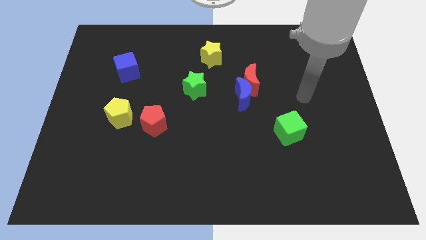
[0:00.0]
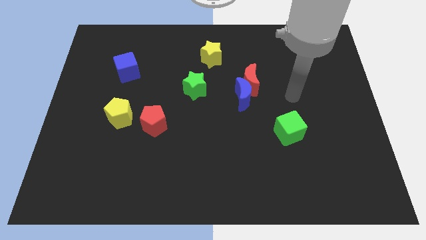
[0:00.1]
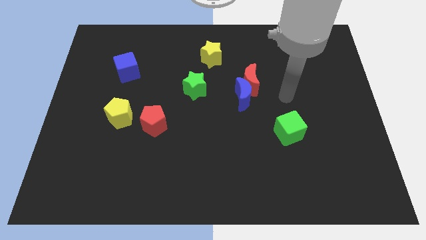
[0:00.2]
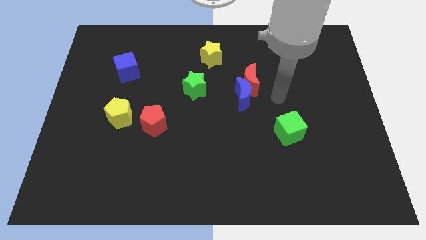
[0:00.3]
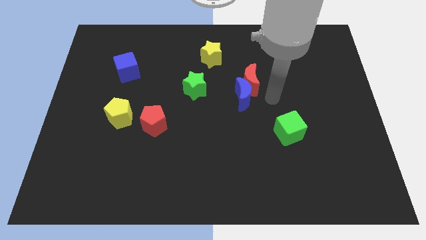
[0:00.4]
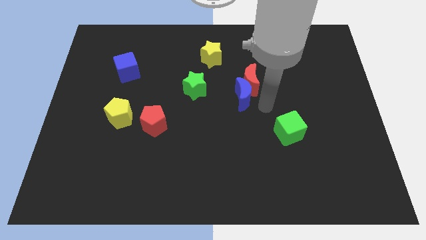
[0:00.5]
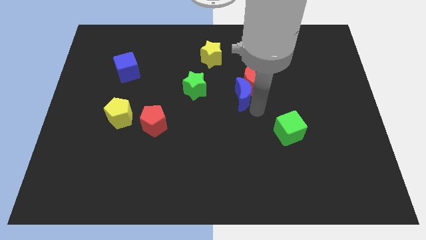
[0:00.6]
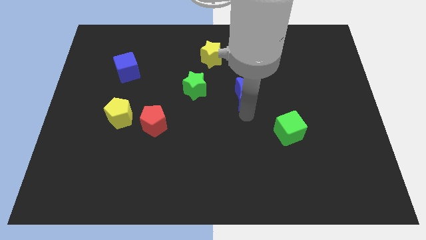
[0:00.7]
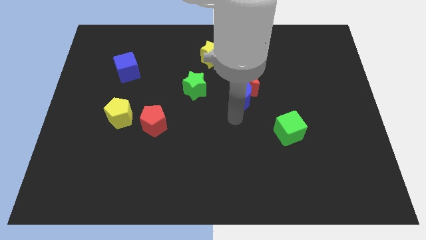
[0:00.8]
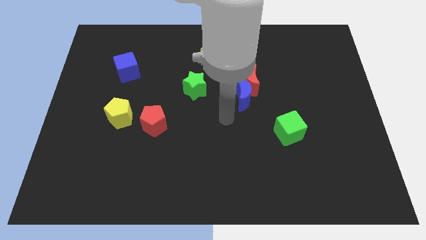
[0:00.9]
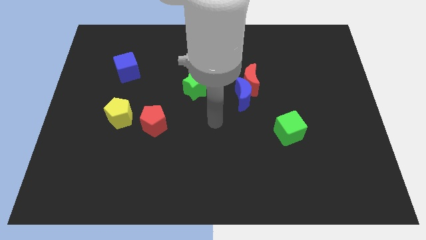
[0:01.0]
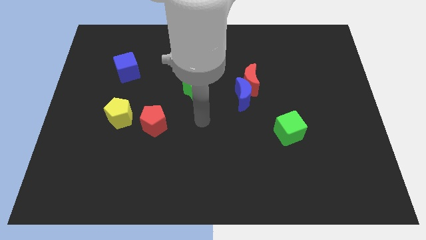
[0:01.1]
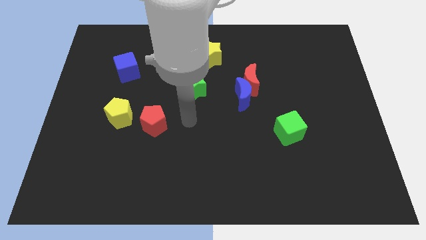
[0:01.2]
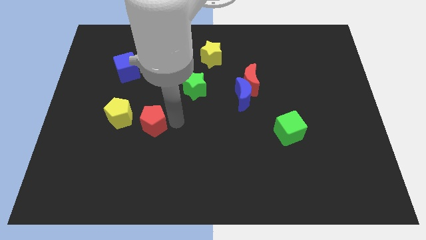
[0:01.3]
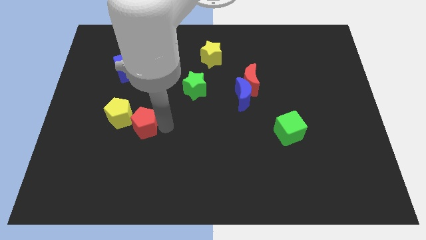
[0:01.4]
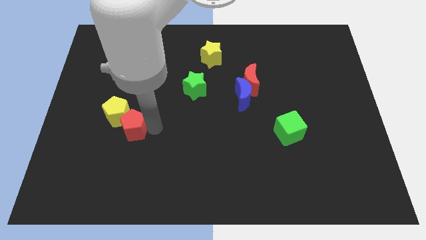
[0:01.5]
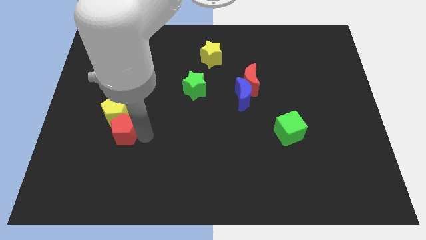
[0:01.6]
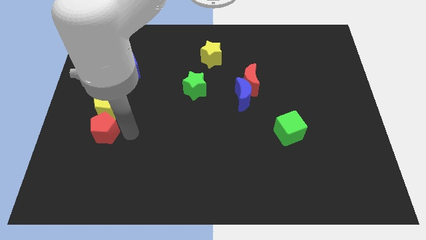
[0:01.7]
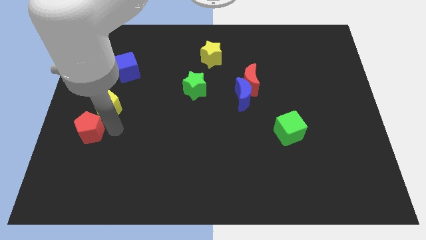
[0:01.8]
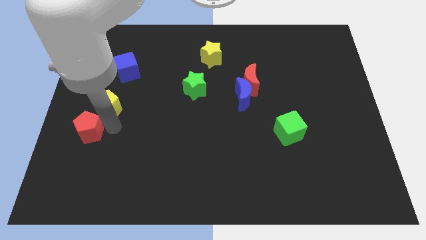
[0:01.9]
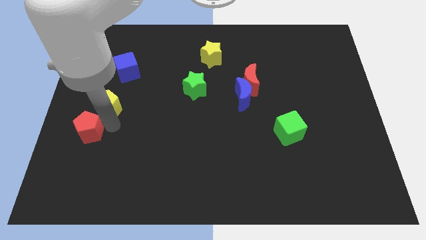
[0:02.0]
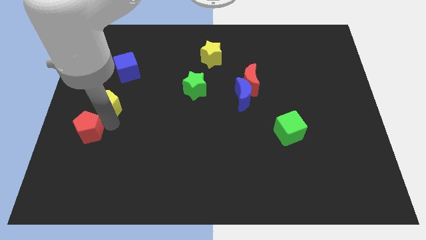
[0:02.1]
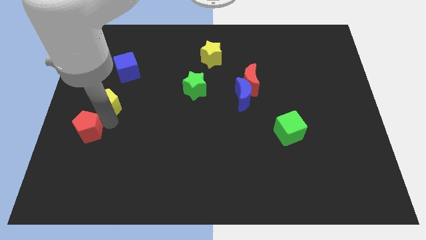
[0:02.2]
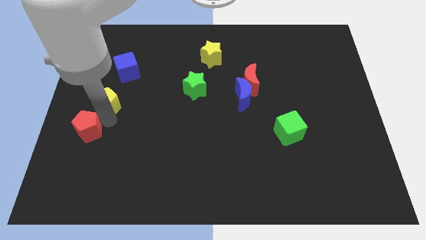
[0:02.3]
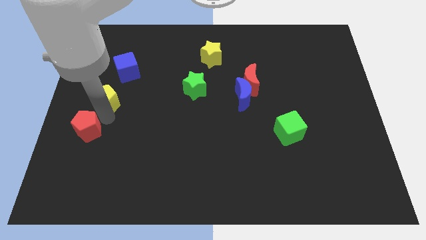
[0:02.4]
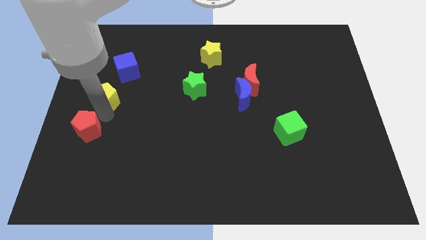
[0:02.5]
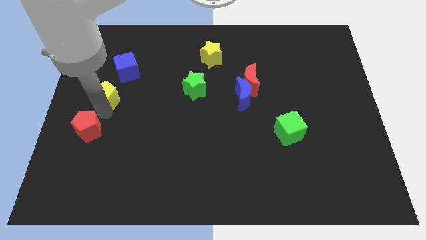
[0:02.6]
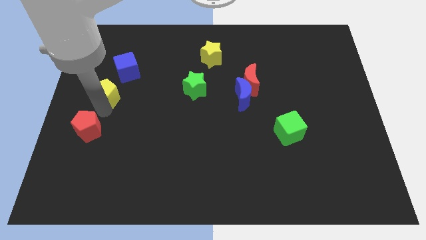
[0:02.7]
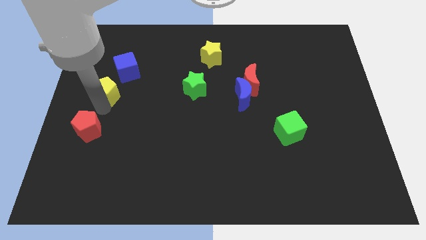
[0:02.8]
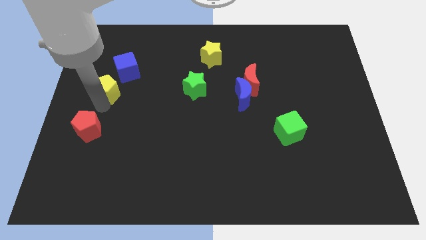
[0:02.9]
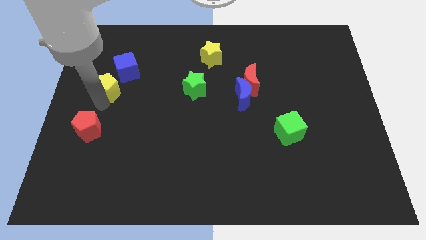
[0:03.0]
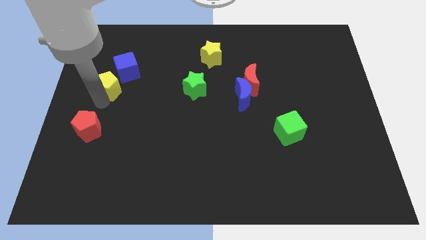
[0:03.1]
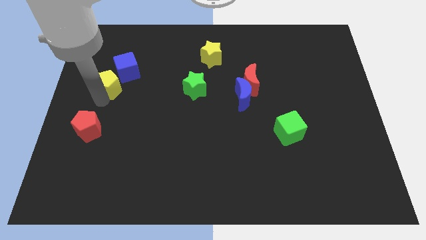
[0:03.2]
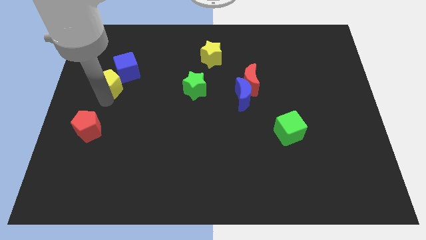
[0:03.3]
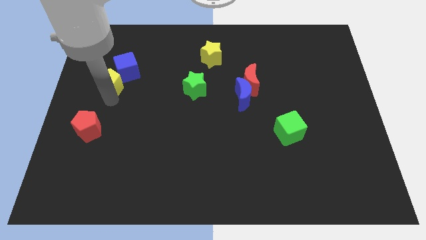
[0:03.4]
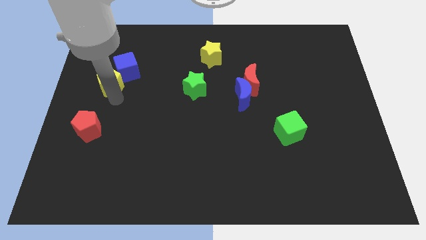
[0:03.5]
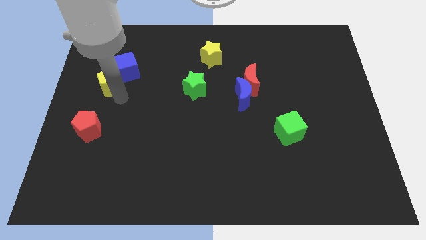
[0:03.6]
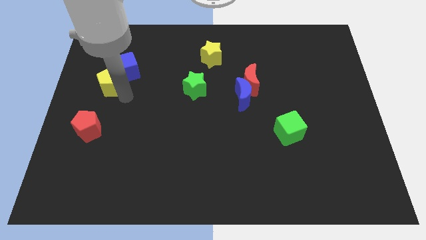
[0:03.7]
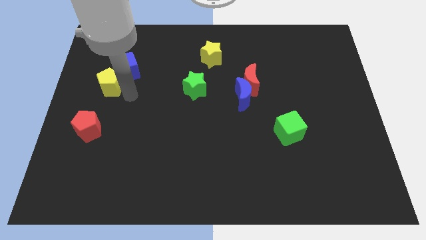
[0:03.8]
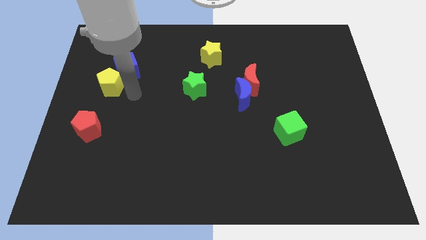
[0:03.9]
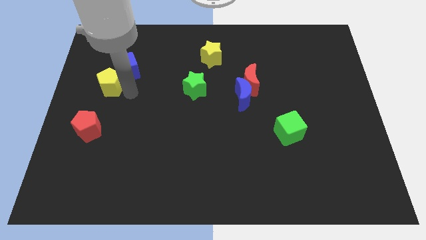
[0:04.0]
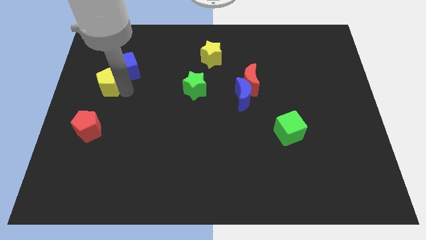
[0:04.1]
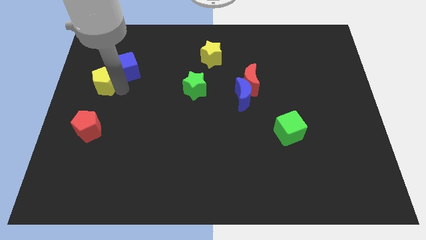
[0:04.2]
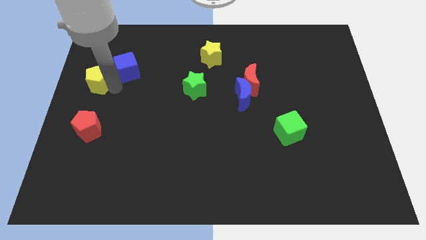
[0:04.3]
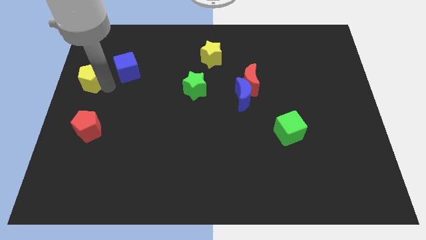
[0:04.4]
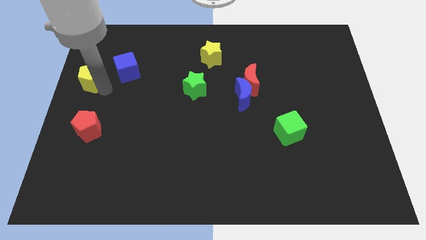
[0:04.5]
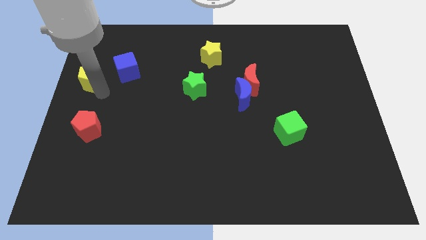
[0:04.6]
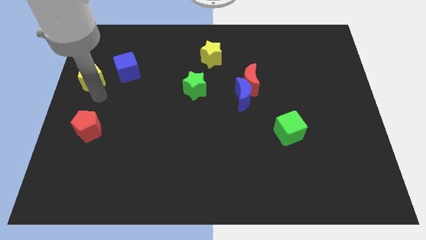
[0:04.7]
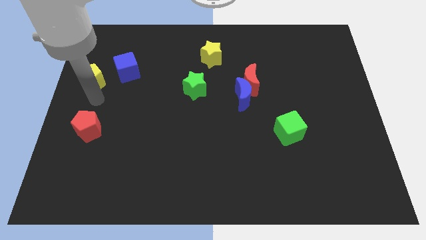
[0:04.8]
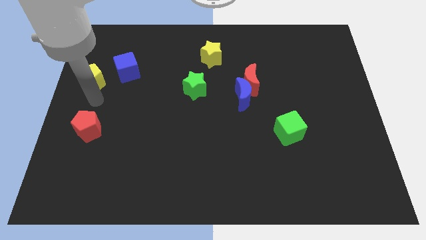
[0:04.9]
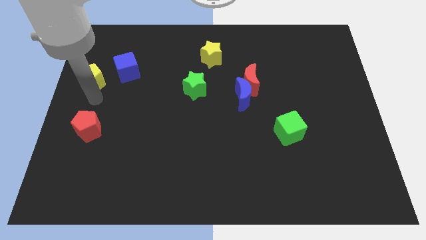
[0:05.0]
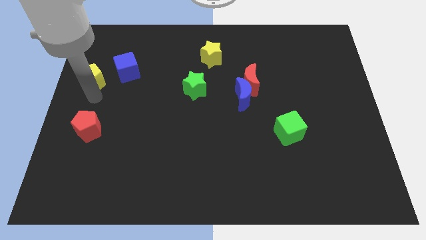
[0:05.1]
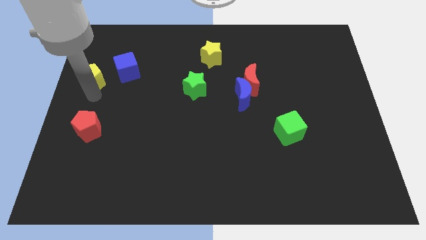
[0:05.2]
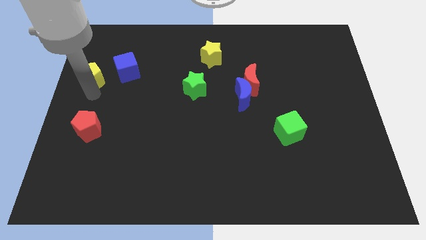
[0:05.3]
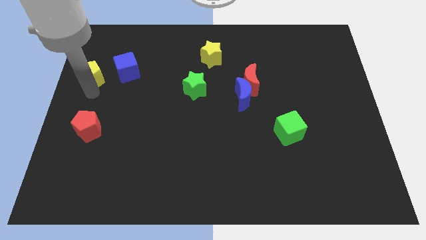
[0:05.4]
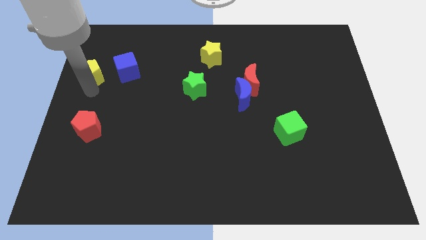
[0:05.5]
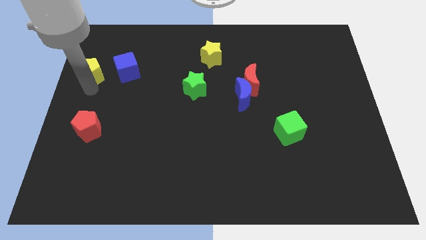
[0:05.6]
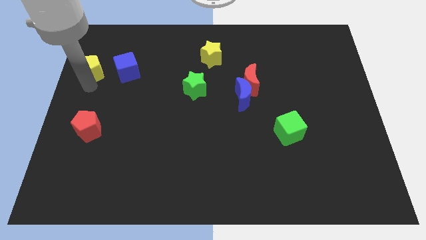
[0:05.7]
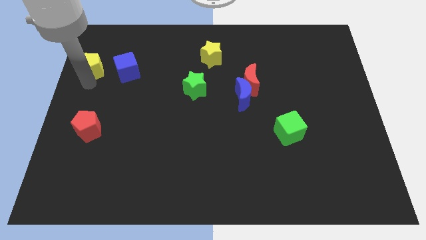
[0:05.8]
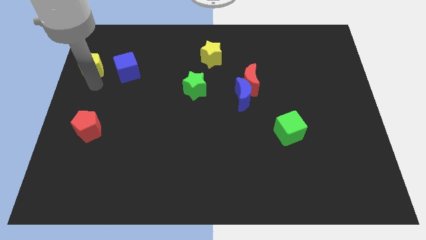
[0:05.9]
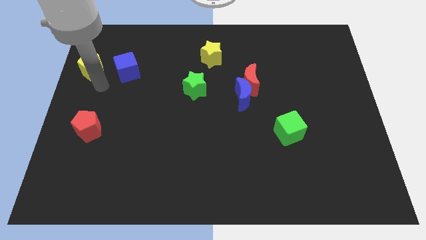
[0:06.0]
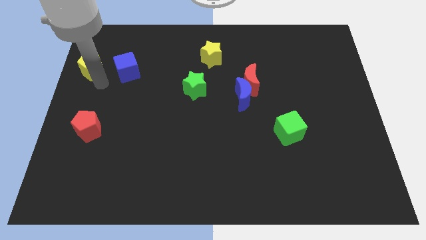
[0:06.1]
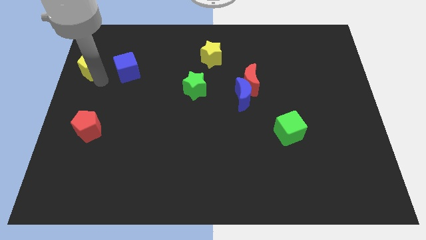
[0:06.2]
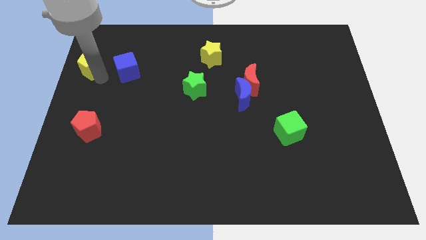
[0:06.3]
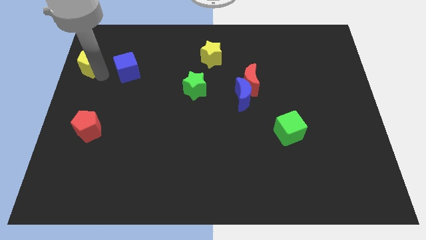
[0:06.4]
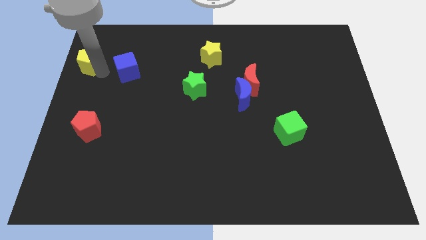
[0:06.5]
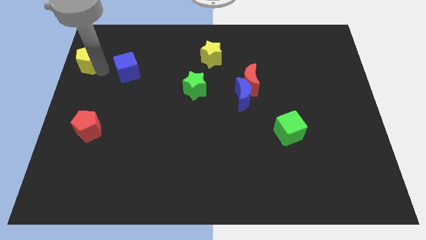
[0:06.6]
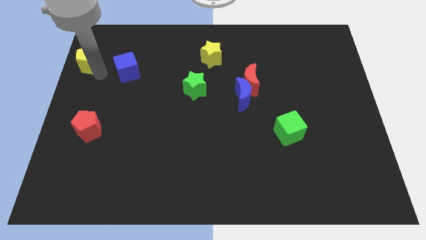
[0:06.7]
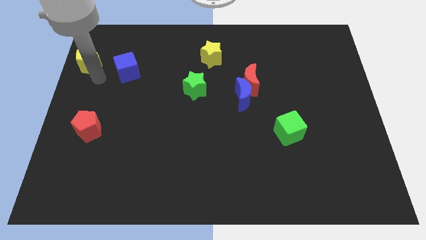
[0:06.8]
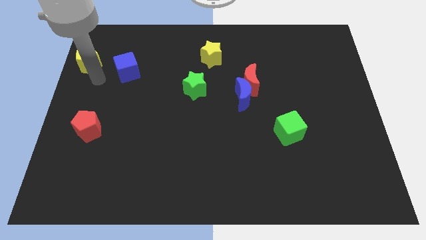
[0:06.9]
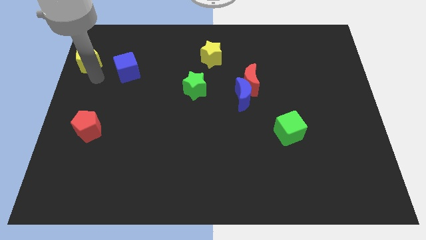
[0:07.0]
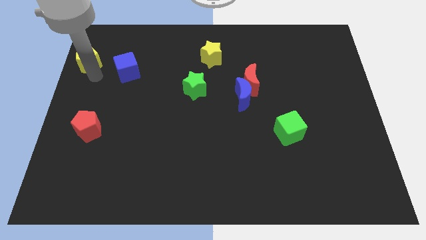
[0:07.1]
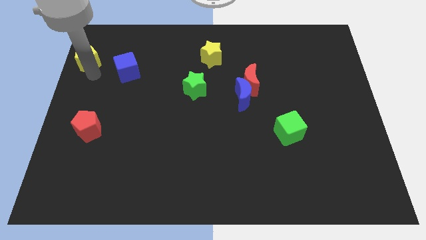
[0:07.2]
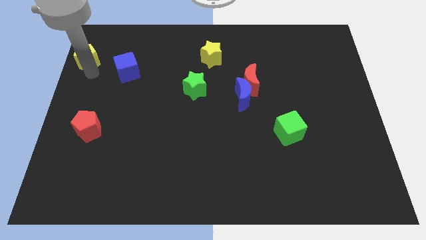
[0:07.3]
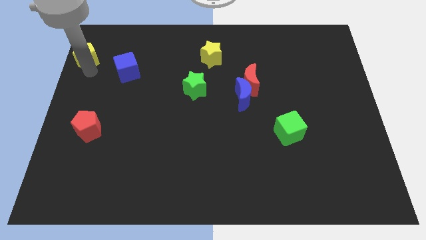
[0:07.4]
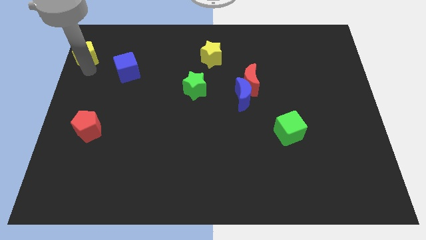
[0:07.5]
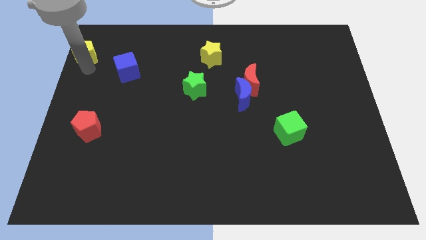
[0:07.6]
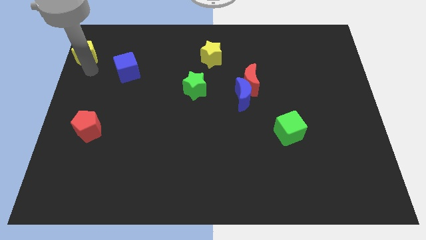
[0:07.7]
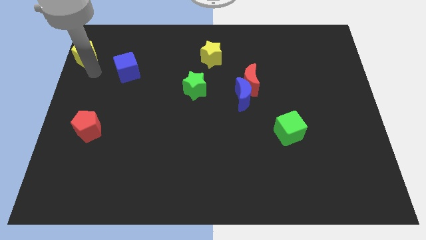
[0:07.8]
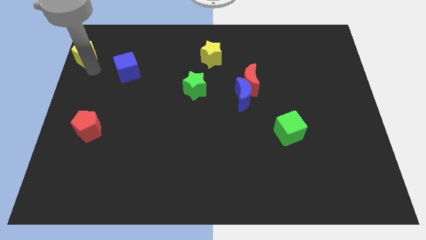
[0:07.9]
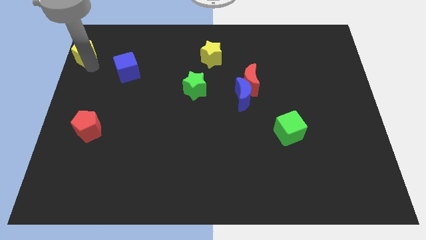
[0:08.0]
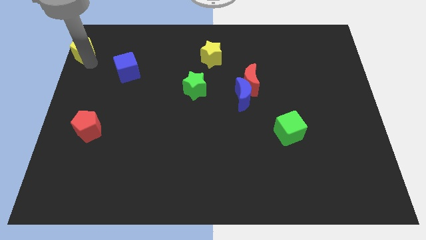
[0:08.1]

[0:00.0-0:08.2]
move the yellow pentagon to the top left
